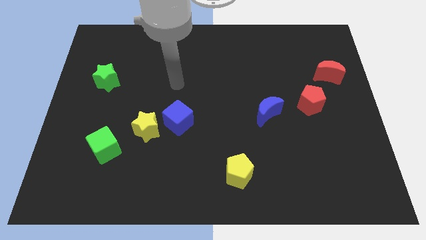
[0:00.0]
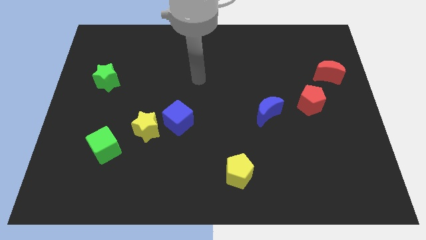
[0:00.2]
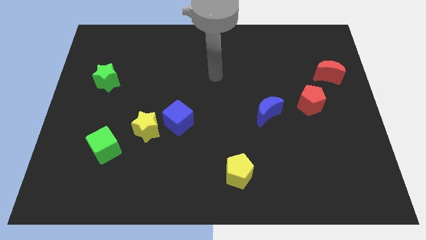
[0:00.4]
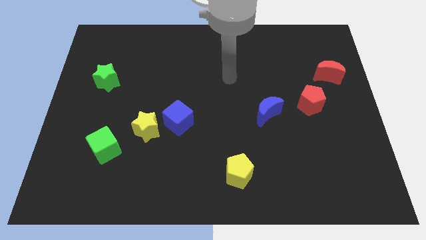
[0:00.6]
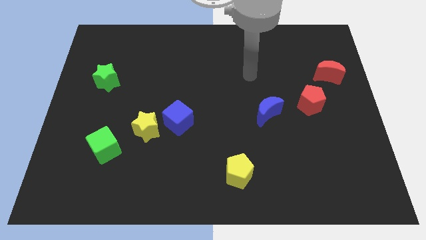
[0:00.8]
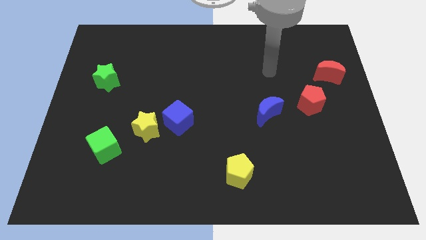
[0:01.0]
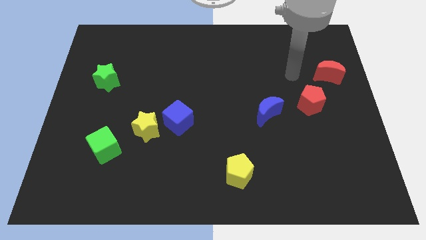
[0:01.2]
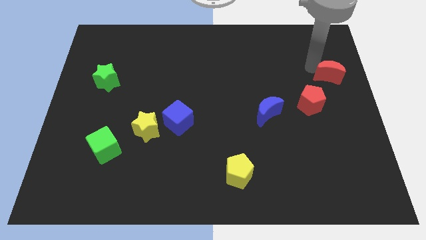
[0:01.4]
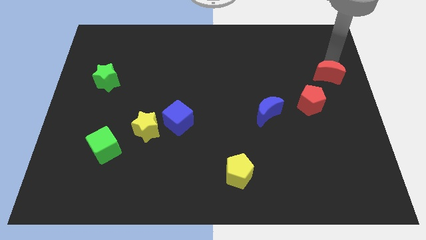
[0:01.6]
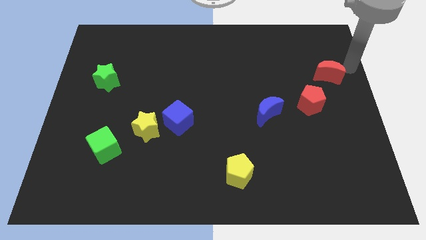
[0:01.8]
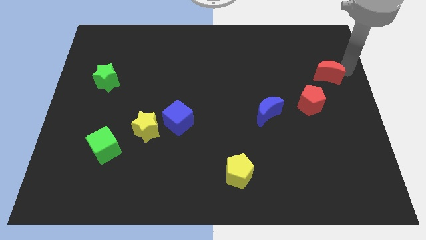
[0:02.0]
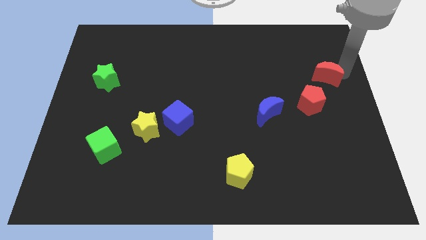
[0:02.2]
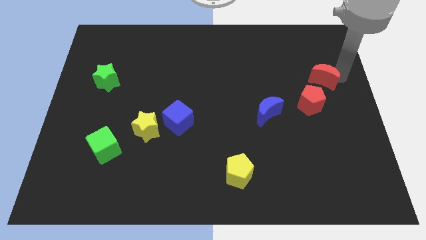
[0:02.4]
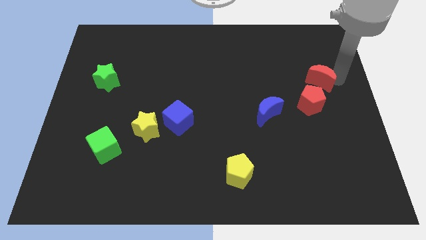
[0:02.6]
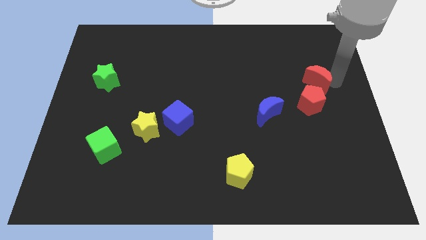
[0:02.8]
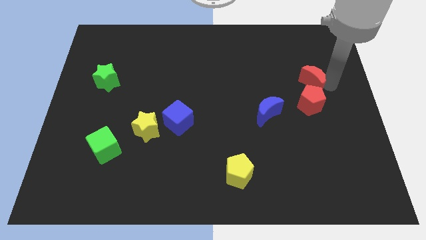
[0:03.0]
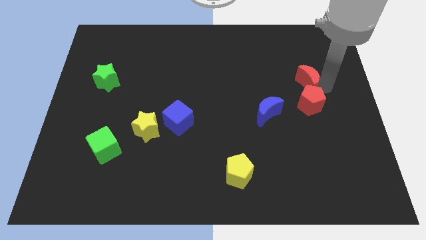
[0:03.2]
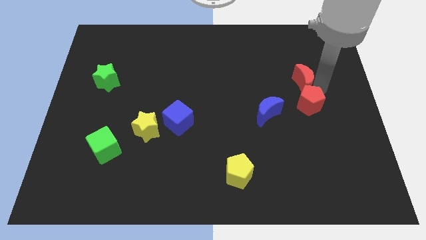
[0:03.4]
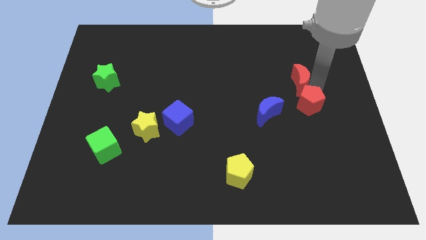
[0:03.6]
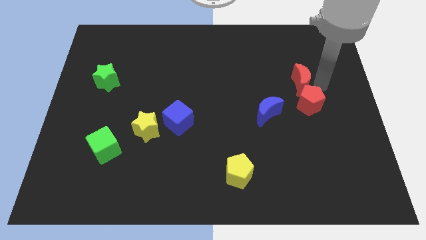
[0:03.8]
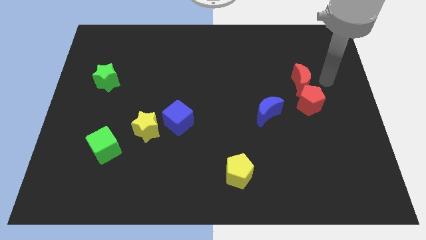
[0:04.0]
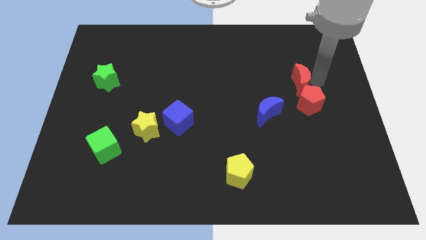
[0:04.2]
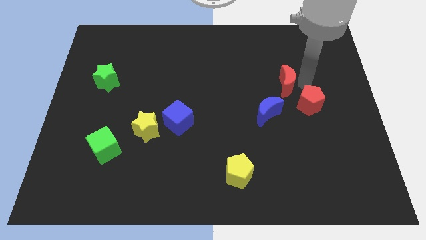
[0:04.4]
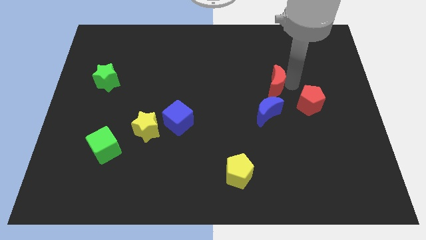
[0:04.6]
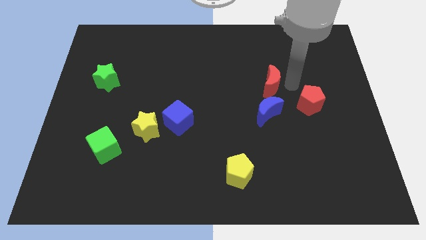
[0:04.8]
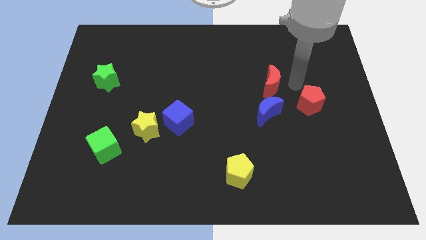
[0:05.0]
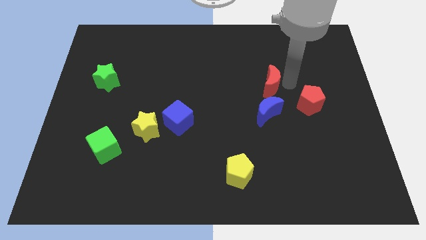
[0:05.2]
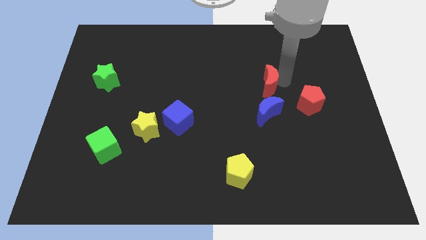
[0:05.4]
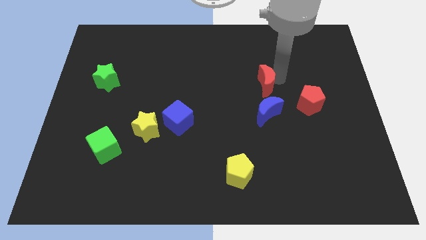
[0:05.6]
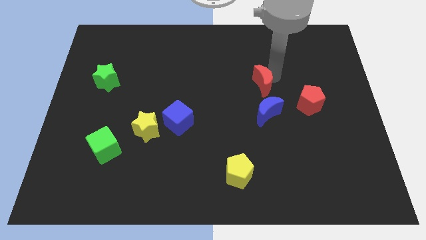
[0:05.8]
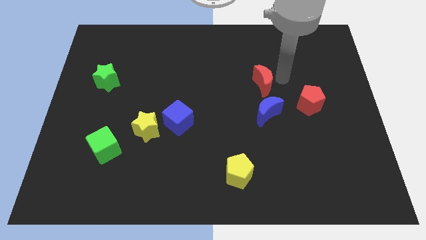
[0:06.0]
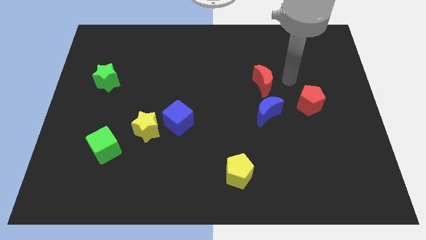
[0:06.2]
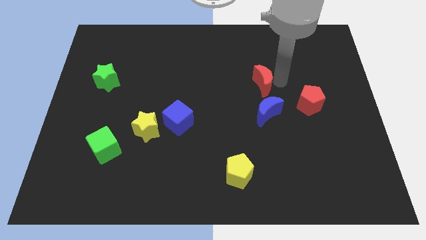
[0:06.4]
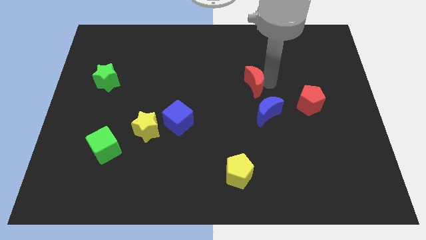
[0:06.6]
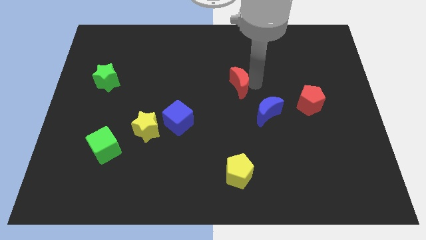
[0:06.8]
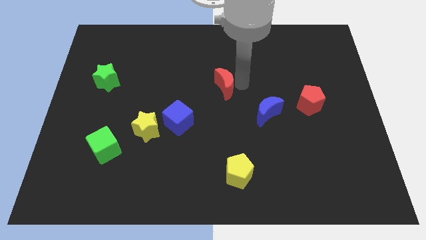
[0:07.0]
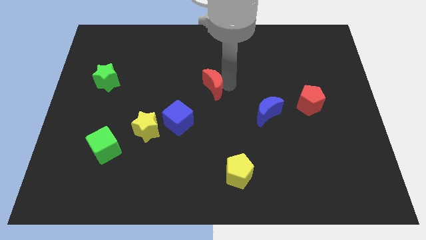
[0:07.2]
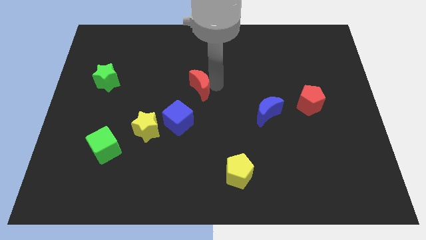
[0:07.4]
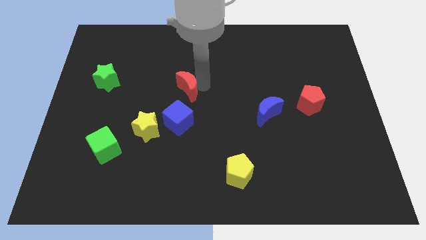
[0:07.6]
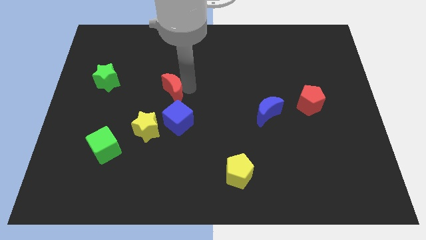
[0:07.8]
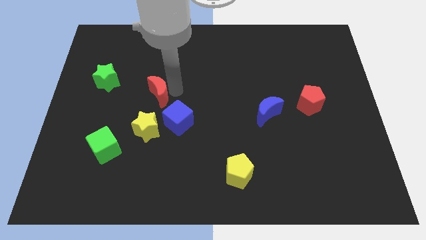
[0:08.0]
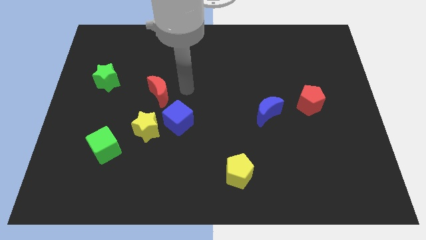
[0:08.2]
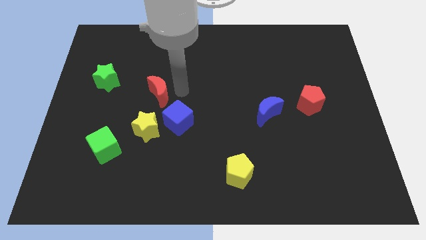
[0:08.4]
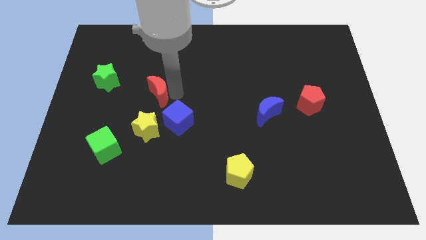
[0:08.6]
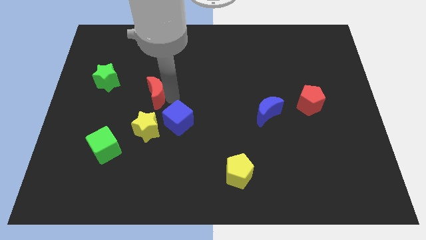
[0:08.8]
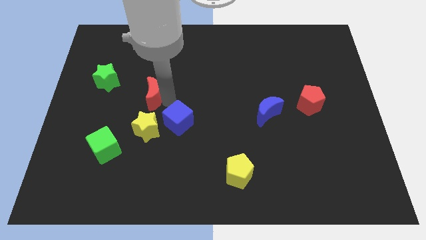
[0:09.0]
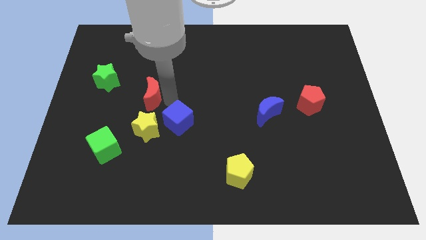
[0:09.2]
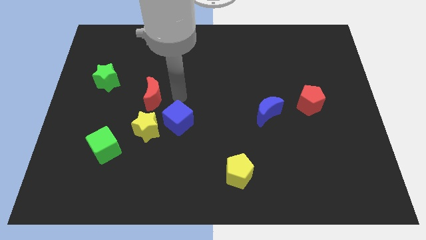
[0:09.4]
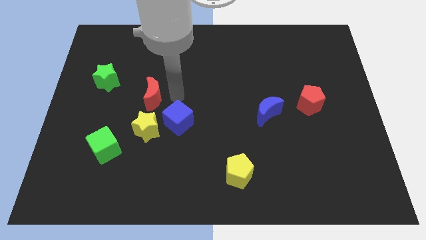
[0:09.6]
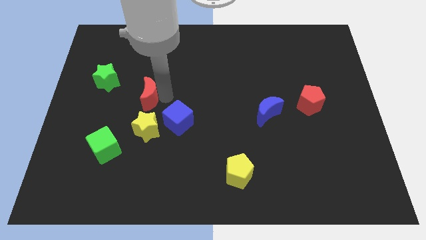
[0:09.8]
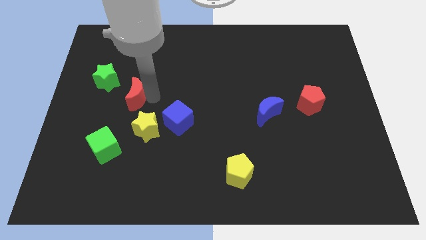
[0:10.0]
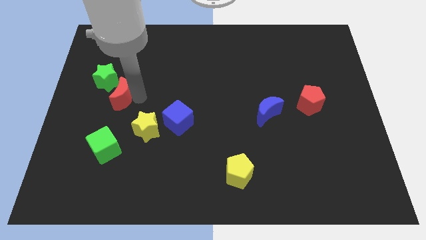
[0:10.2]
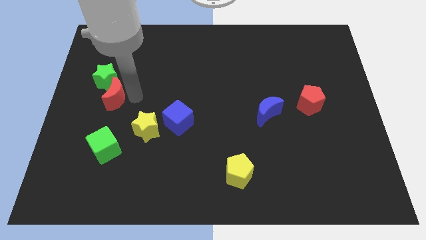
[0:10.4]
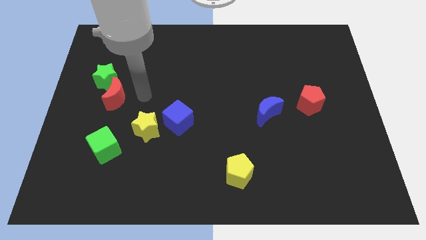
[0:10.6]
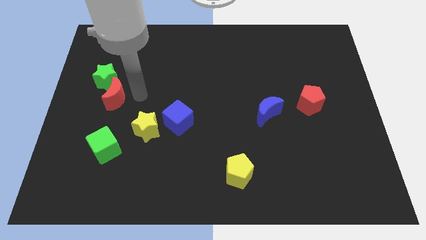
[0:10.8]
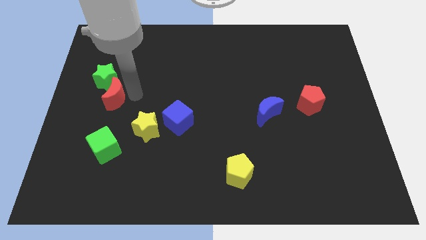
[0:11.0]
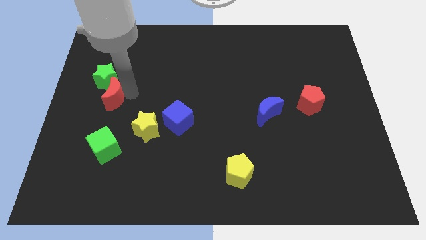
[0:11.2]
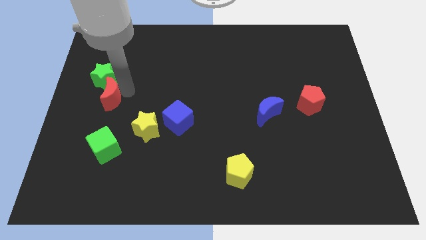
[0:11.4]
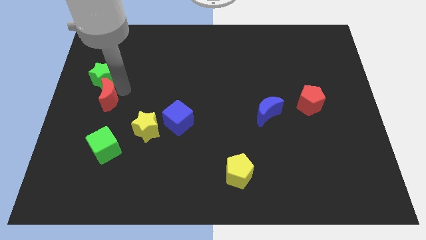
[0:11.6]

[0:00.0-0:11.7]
push the red moon to the left side

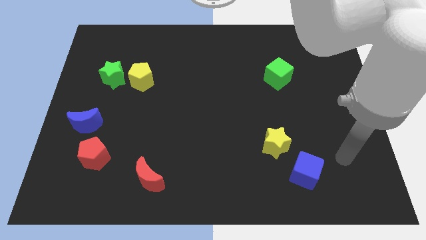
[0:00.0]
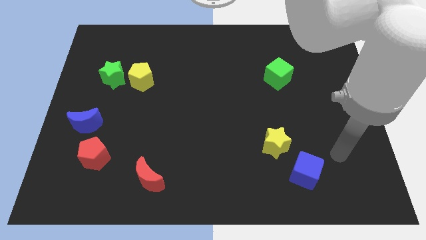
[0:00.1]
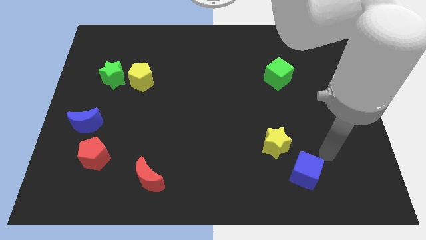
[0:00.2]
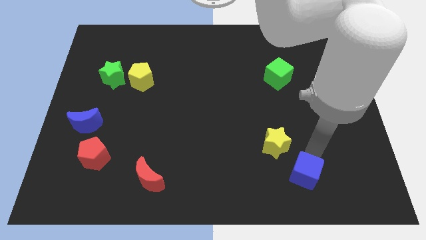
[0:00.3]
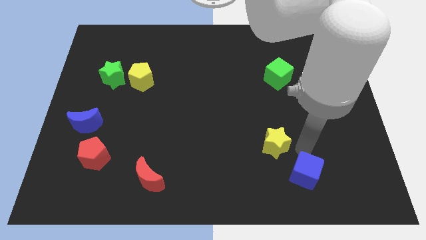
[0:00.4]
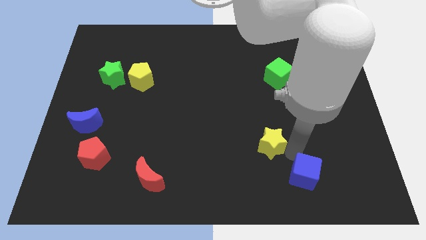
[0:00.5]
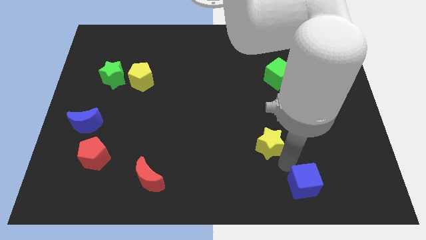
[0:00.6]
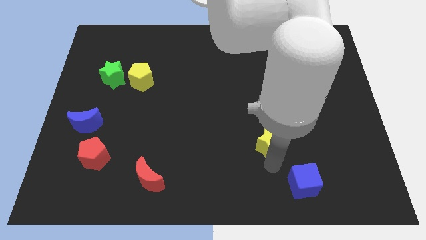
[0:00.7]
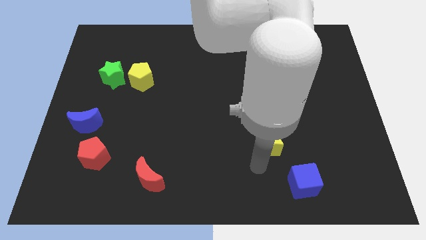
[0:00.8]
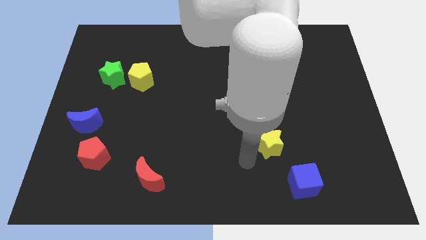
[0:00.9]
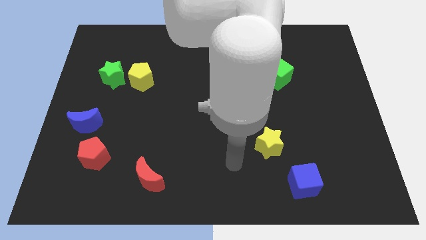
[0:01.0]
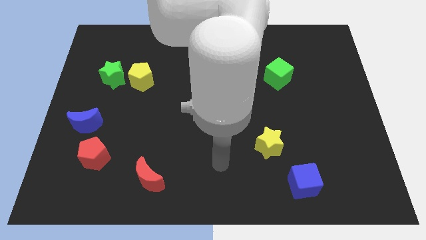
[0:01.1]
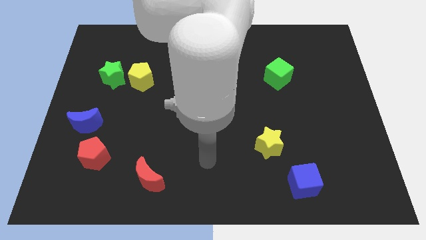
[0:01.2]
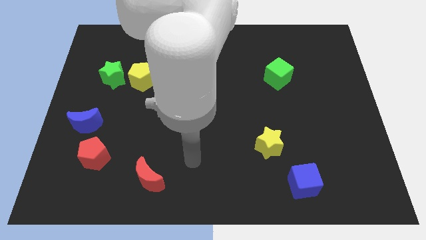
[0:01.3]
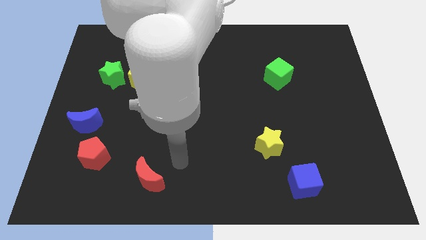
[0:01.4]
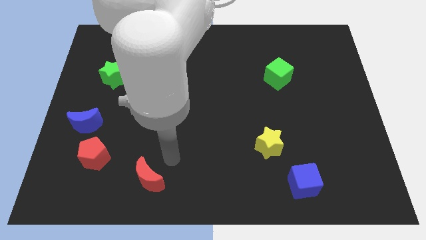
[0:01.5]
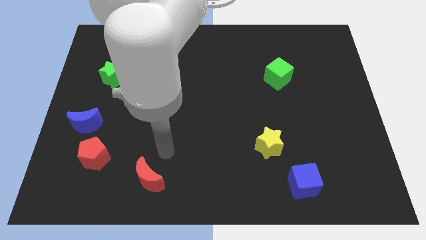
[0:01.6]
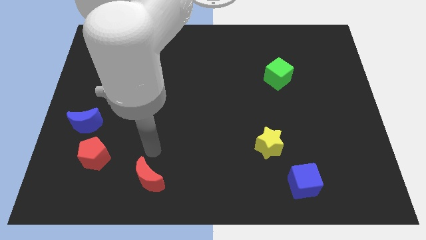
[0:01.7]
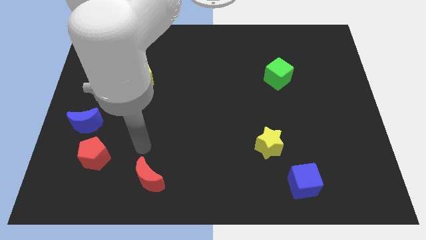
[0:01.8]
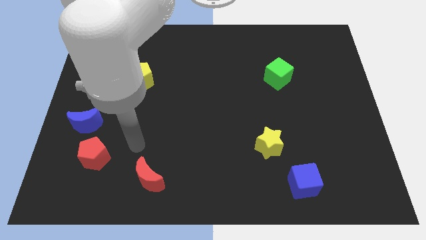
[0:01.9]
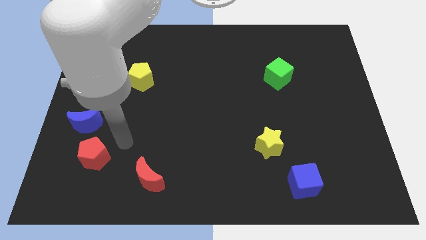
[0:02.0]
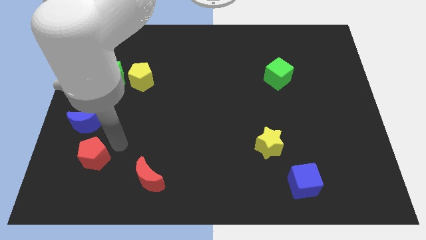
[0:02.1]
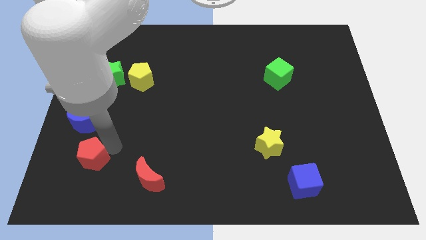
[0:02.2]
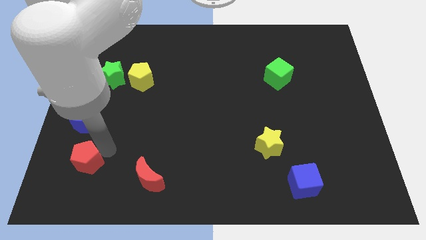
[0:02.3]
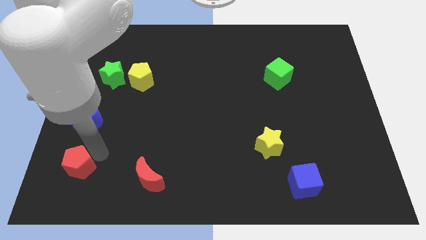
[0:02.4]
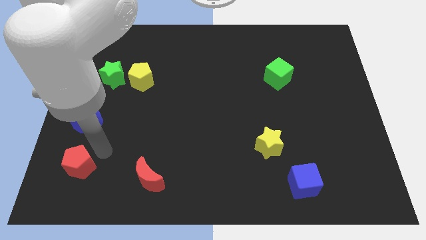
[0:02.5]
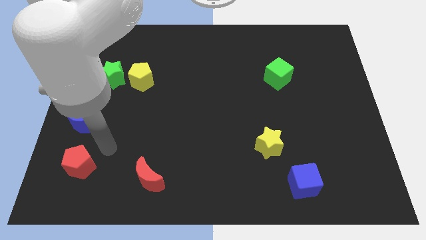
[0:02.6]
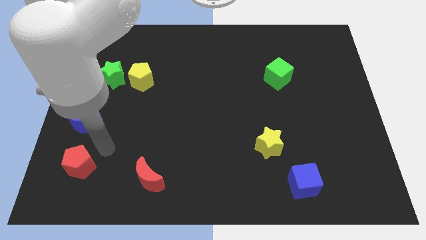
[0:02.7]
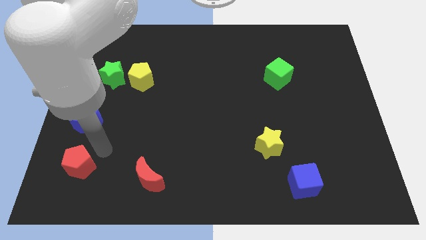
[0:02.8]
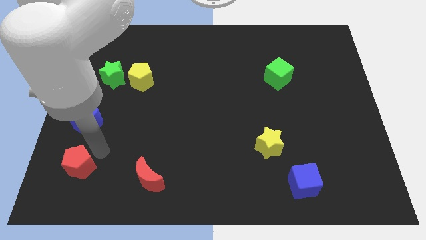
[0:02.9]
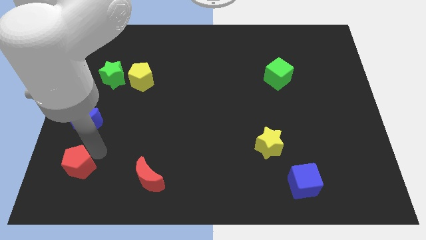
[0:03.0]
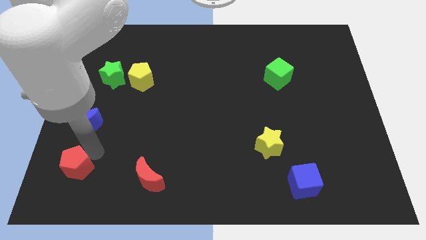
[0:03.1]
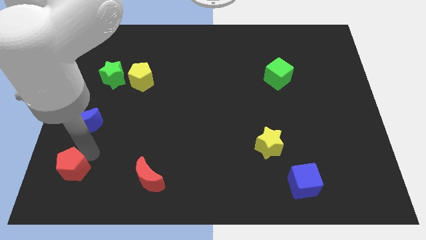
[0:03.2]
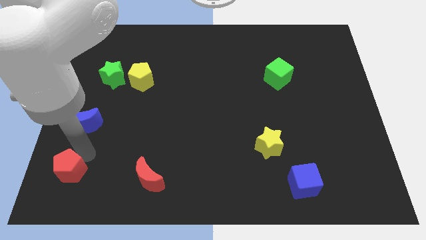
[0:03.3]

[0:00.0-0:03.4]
put the red pentagon to the bottom left
